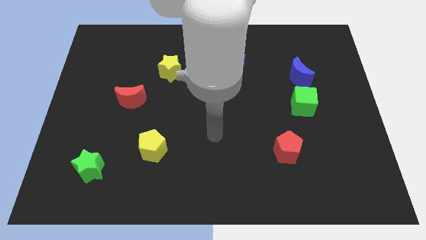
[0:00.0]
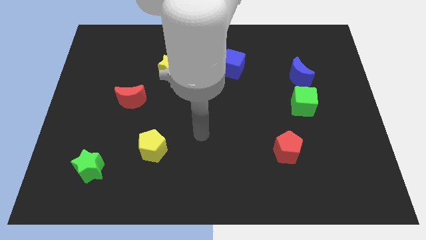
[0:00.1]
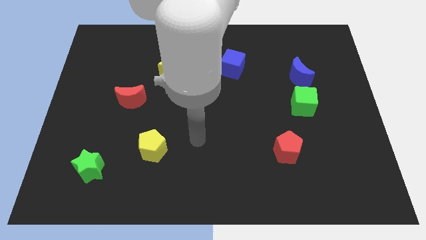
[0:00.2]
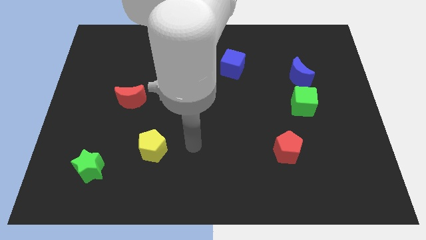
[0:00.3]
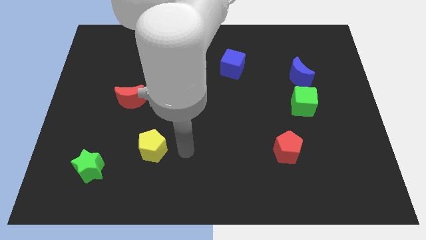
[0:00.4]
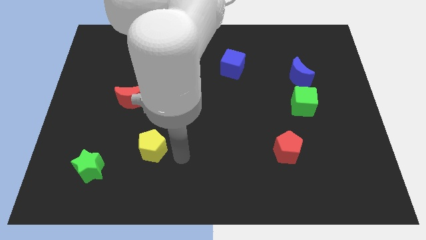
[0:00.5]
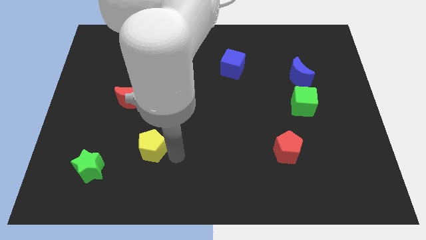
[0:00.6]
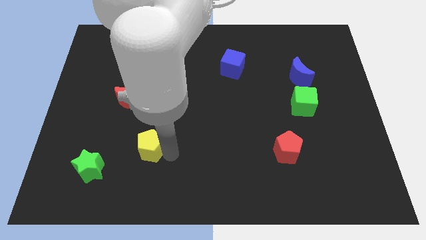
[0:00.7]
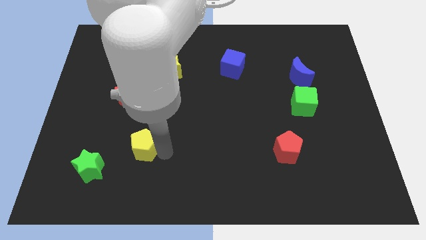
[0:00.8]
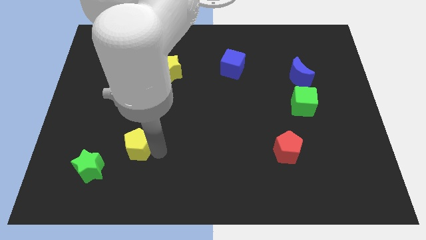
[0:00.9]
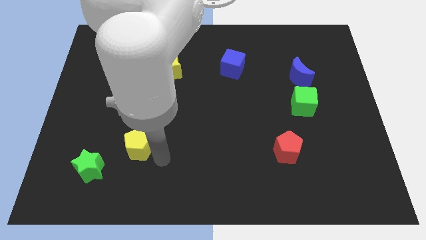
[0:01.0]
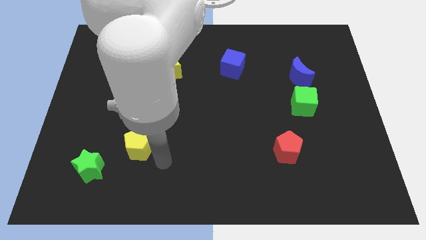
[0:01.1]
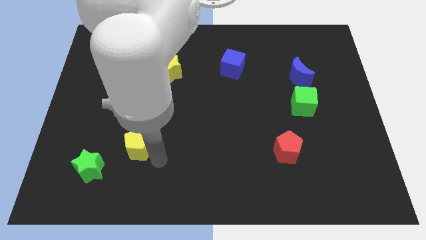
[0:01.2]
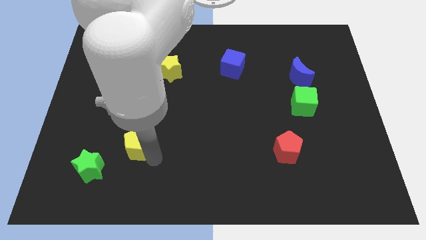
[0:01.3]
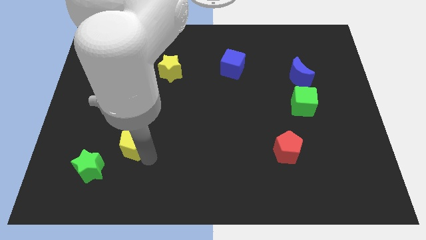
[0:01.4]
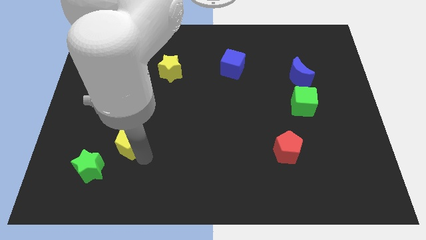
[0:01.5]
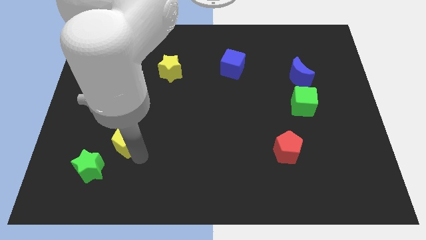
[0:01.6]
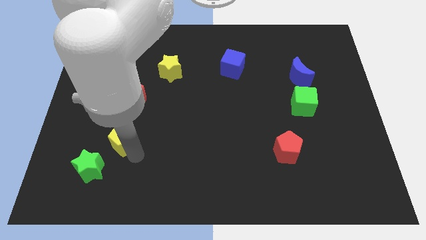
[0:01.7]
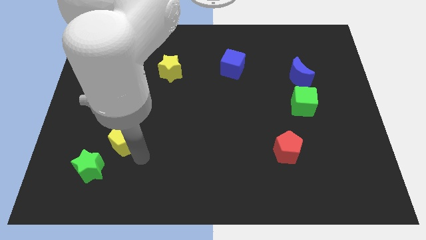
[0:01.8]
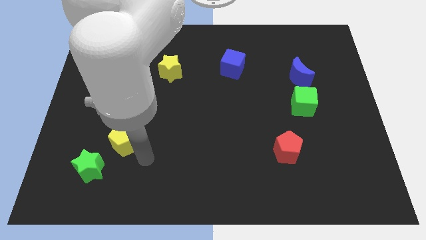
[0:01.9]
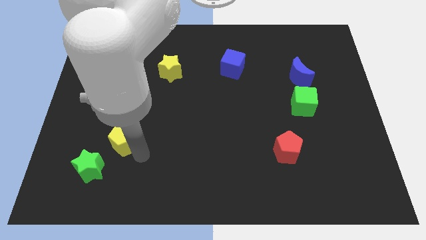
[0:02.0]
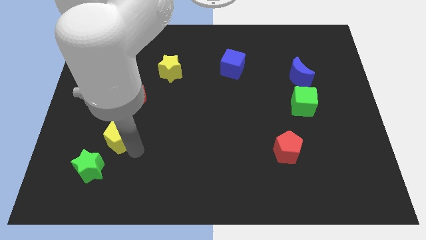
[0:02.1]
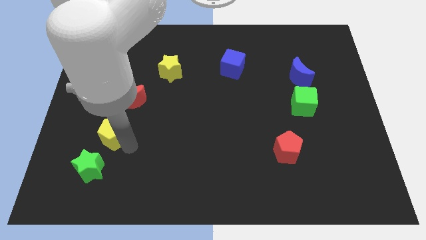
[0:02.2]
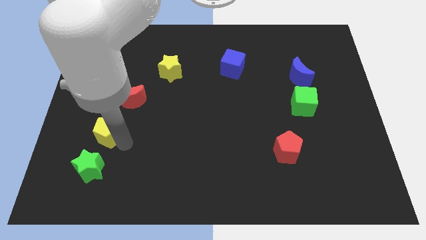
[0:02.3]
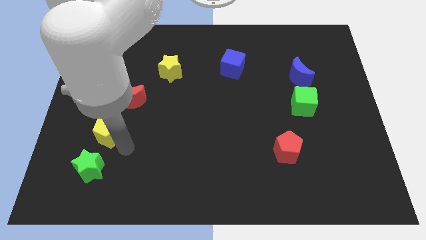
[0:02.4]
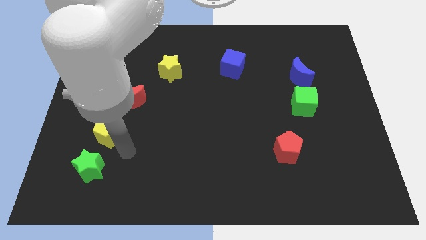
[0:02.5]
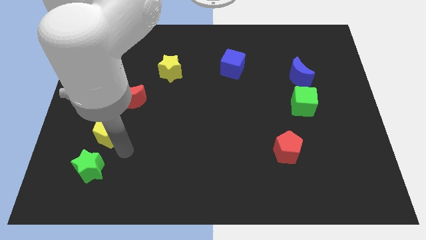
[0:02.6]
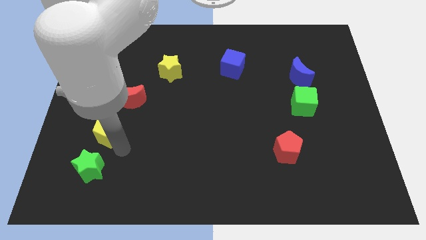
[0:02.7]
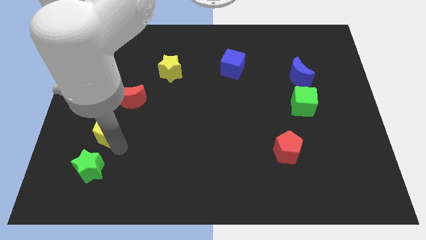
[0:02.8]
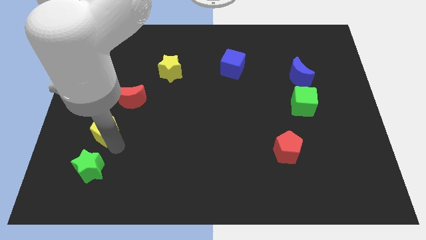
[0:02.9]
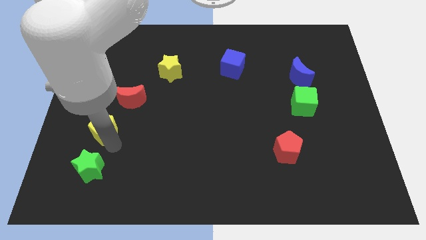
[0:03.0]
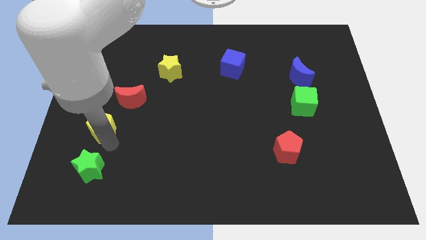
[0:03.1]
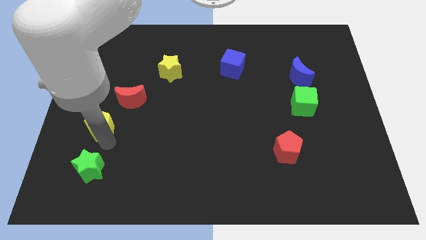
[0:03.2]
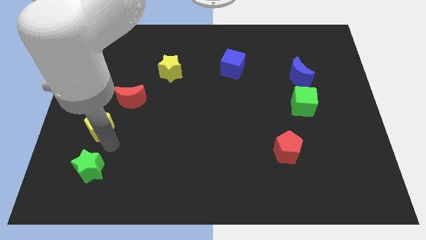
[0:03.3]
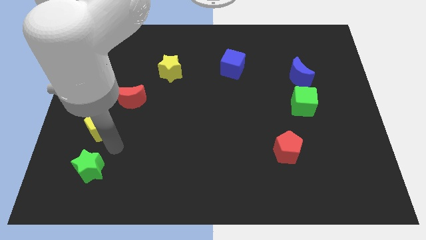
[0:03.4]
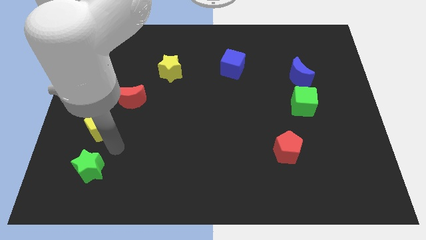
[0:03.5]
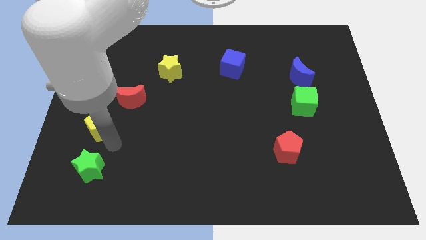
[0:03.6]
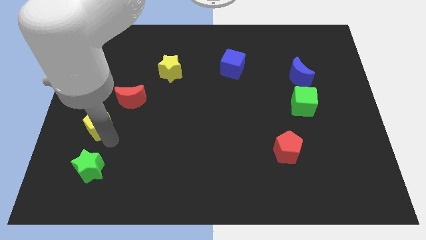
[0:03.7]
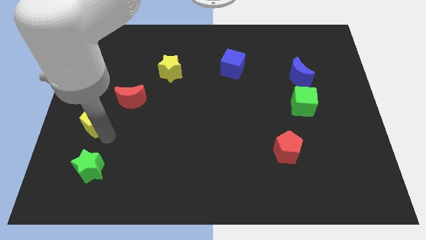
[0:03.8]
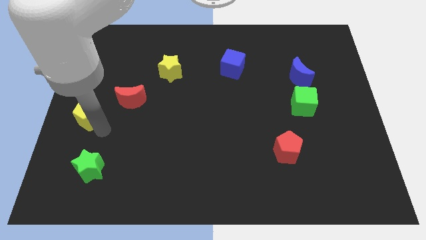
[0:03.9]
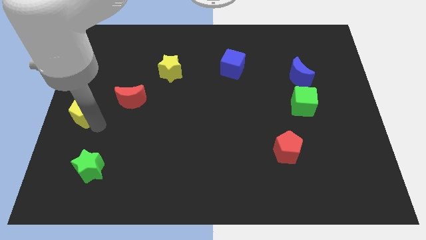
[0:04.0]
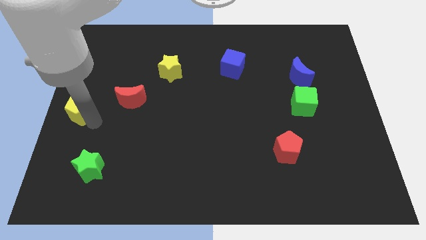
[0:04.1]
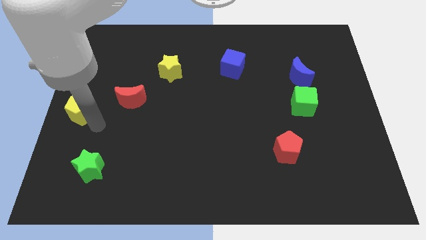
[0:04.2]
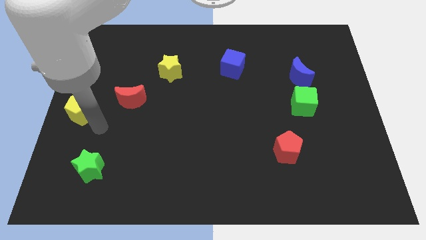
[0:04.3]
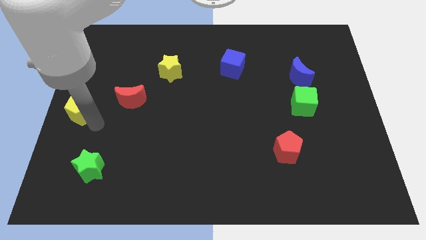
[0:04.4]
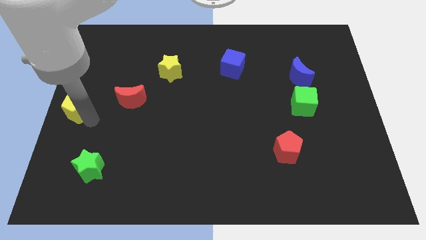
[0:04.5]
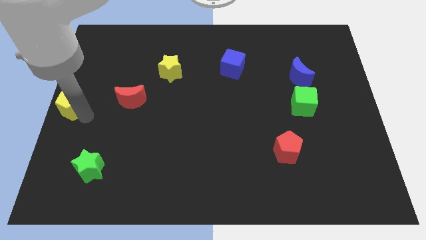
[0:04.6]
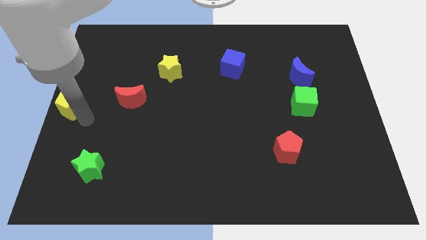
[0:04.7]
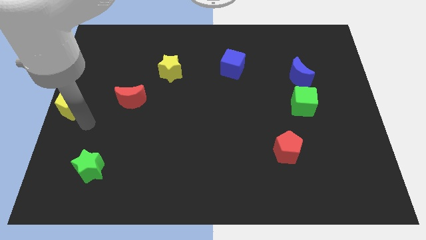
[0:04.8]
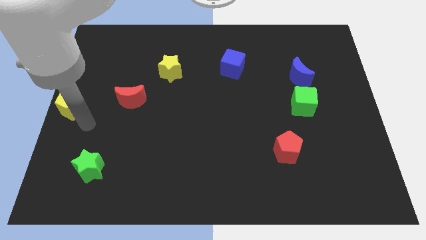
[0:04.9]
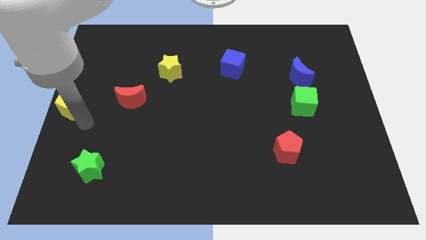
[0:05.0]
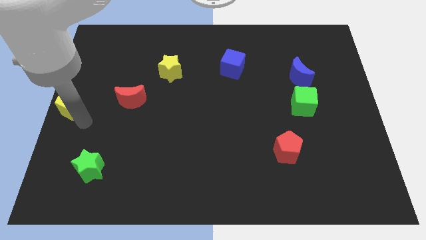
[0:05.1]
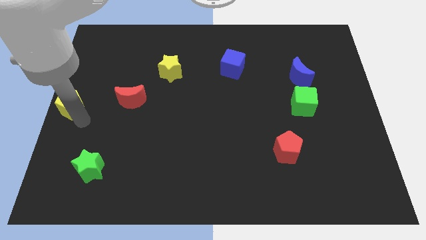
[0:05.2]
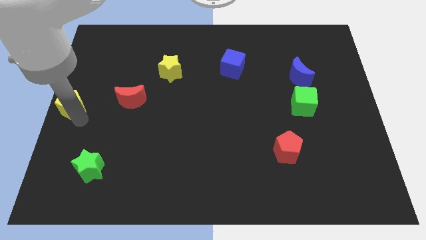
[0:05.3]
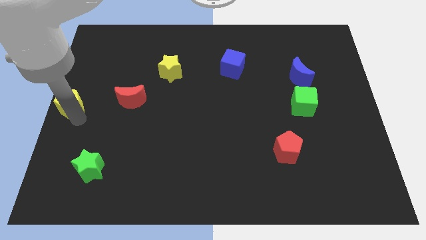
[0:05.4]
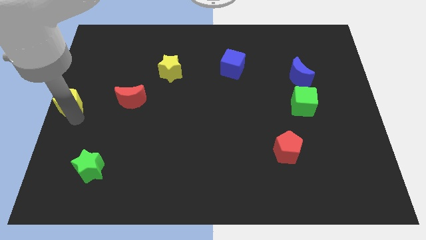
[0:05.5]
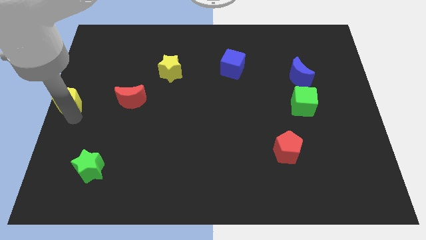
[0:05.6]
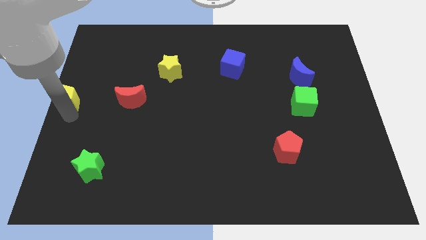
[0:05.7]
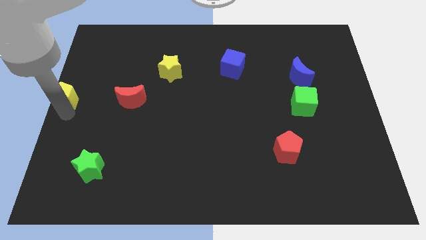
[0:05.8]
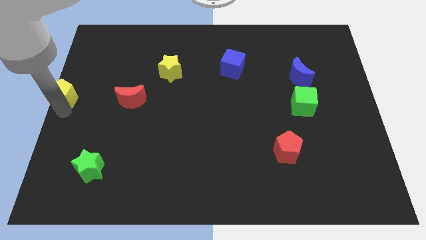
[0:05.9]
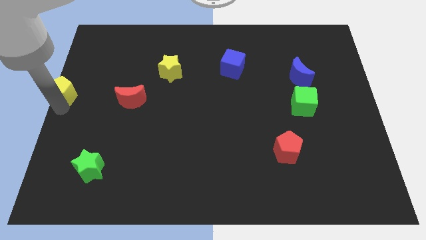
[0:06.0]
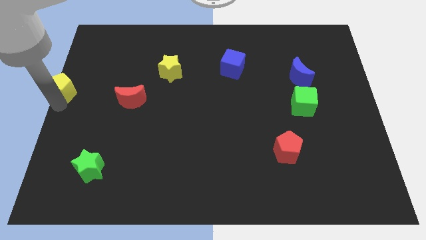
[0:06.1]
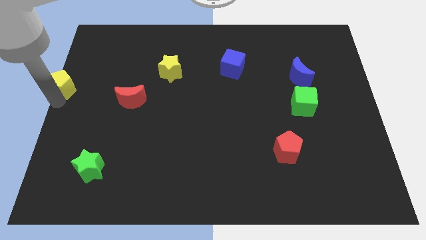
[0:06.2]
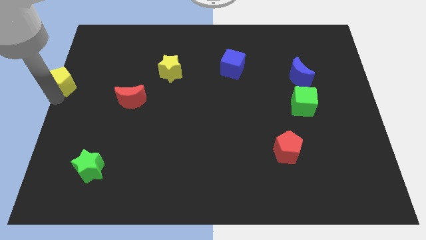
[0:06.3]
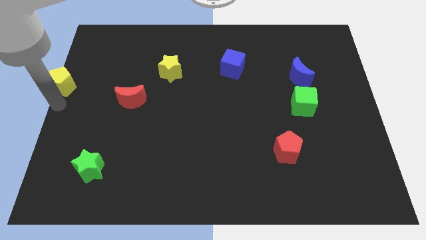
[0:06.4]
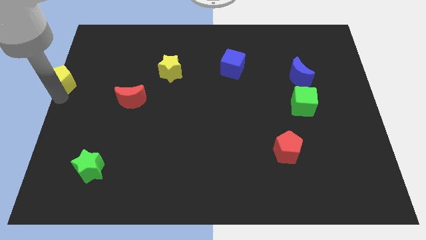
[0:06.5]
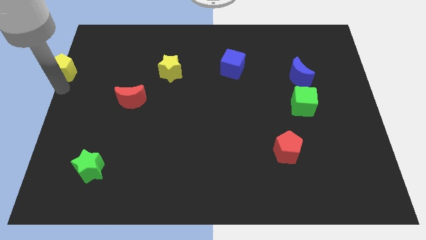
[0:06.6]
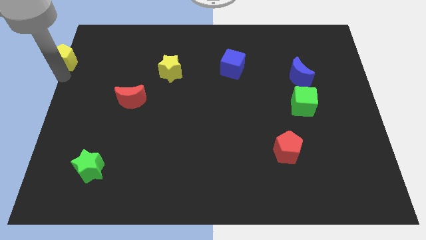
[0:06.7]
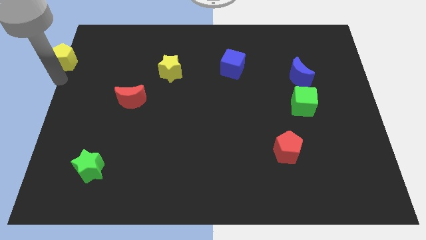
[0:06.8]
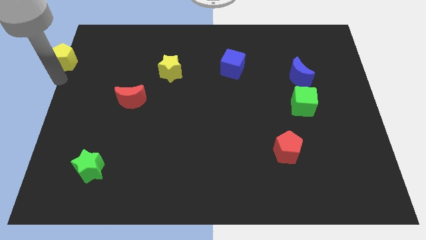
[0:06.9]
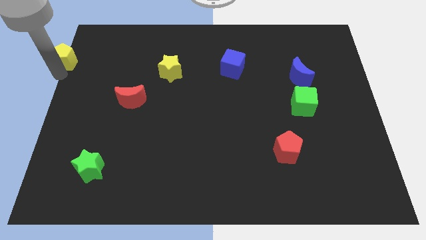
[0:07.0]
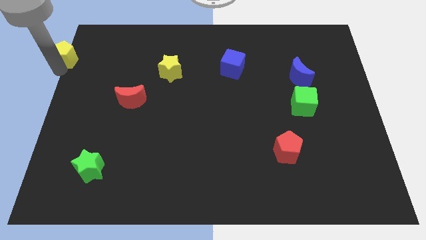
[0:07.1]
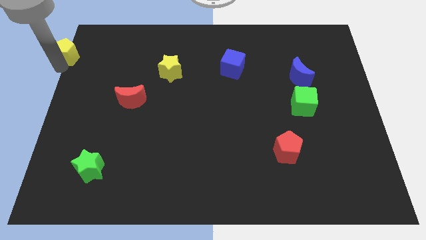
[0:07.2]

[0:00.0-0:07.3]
put the yellow pentagon to the top left

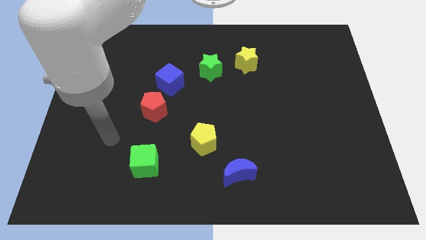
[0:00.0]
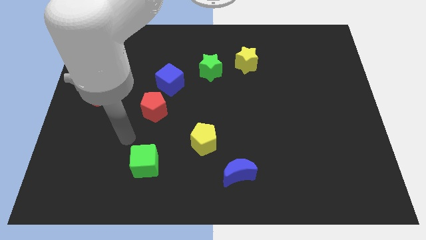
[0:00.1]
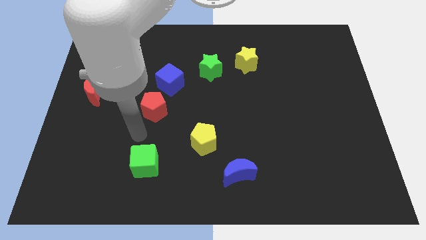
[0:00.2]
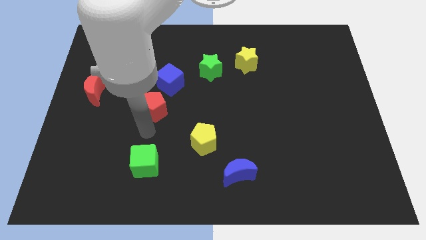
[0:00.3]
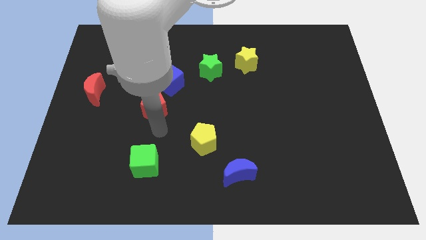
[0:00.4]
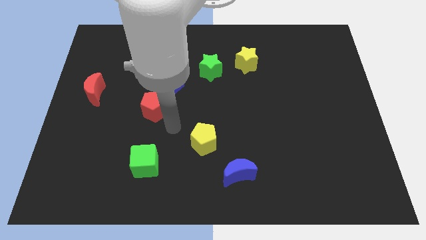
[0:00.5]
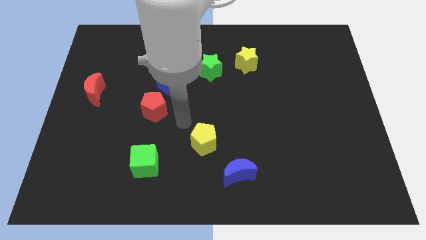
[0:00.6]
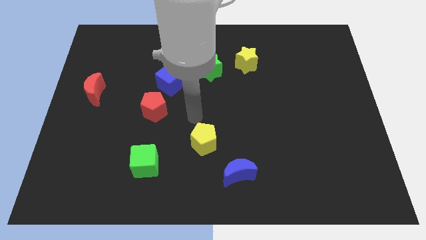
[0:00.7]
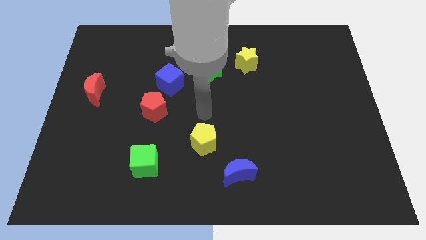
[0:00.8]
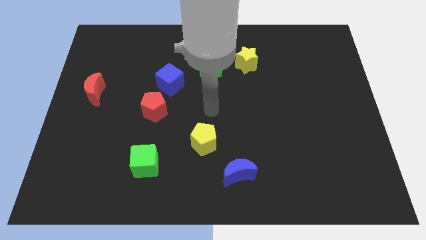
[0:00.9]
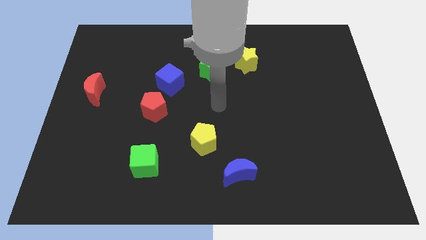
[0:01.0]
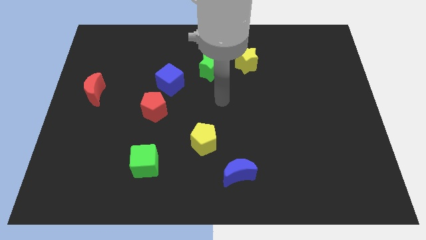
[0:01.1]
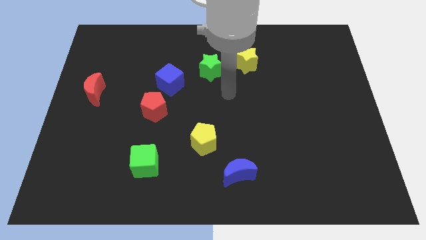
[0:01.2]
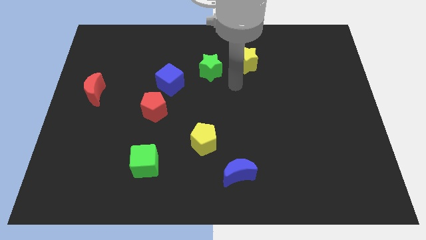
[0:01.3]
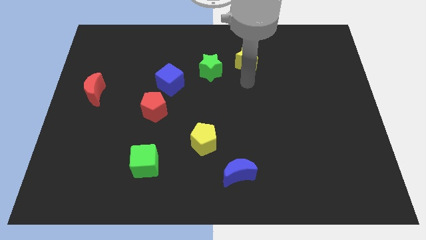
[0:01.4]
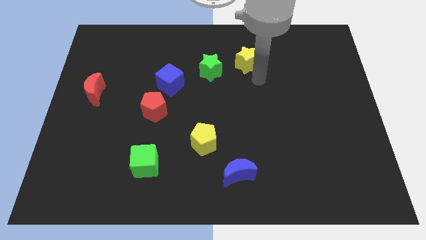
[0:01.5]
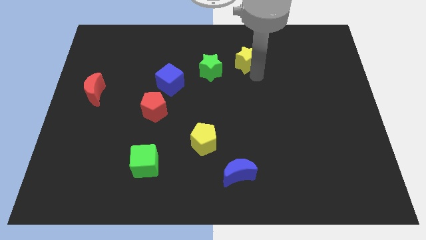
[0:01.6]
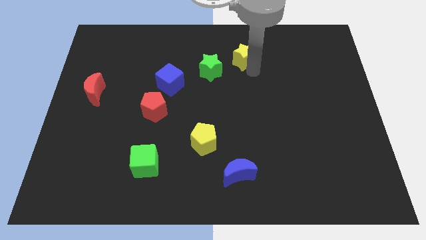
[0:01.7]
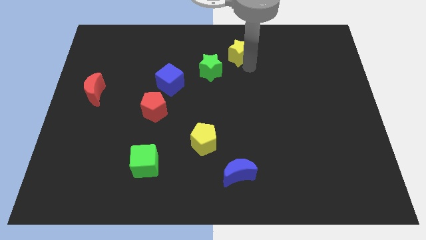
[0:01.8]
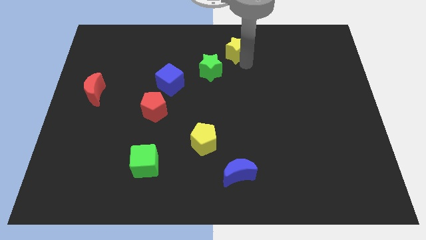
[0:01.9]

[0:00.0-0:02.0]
push the yellow star to the top side
